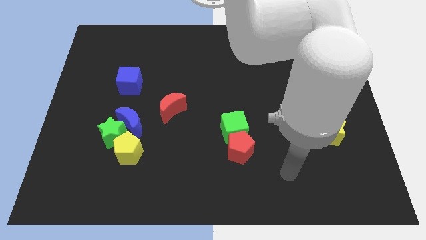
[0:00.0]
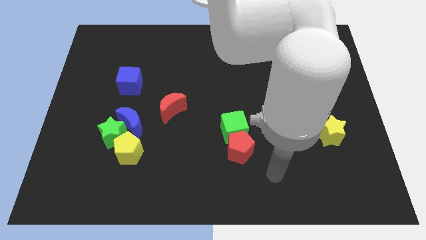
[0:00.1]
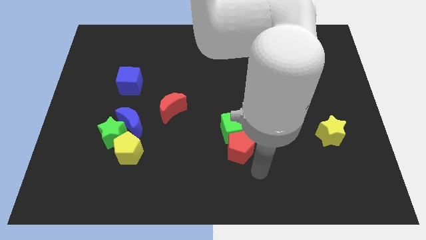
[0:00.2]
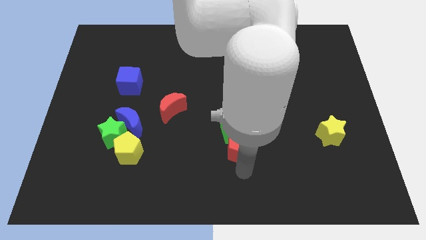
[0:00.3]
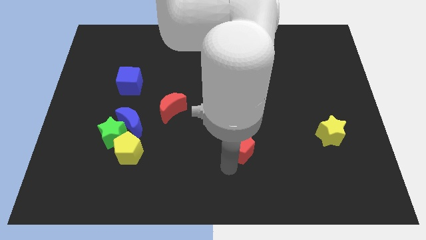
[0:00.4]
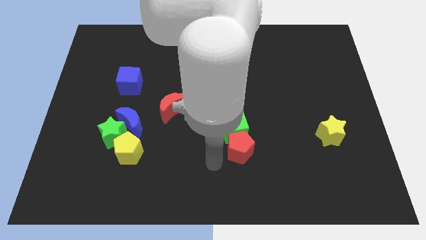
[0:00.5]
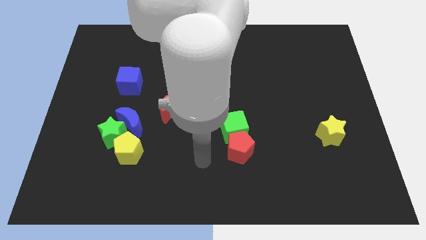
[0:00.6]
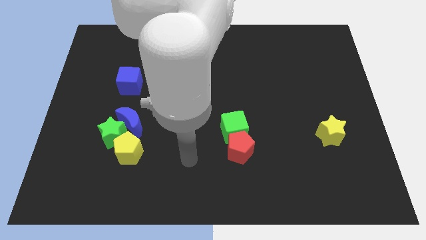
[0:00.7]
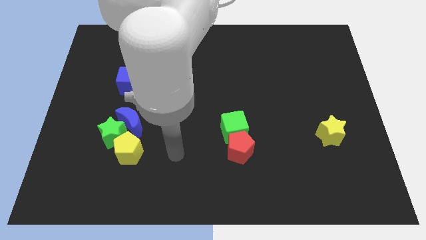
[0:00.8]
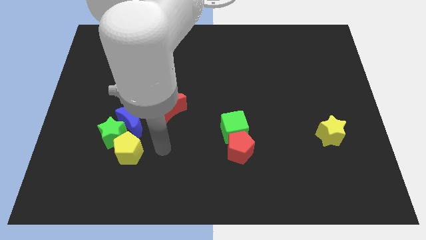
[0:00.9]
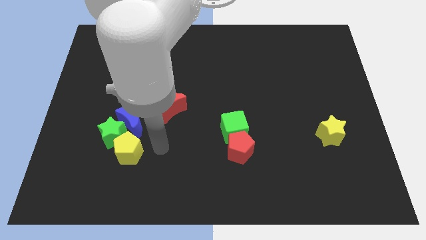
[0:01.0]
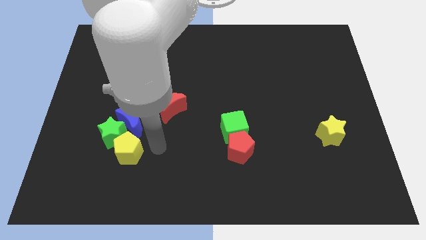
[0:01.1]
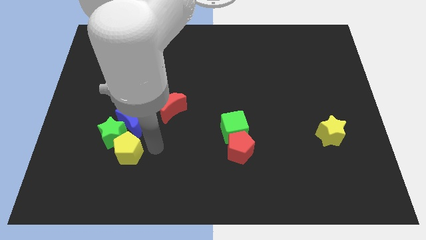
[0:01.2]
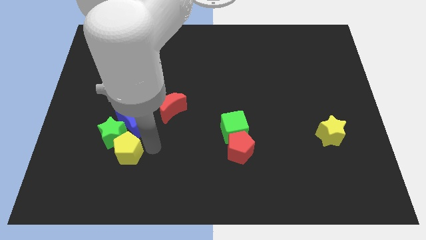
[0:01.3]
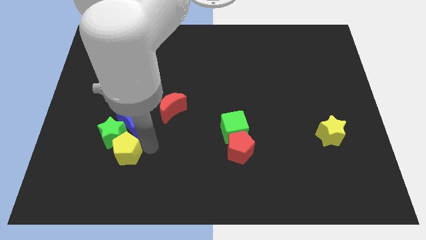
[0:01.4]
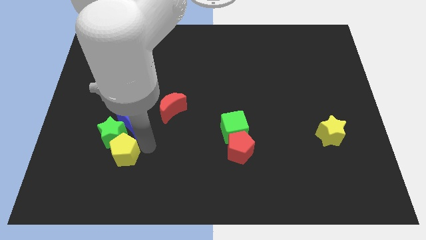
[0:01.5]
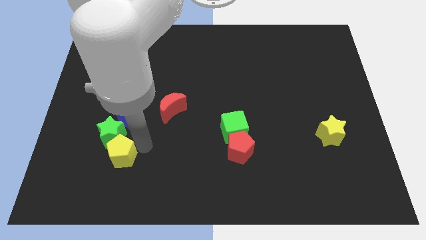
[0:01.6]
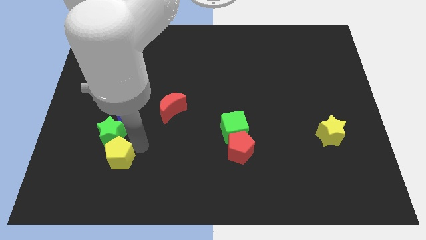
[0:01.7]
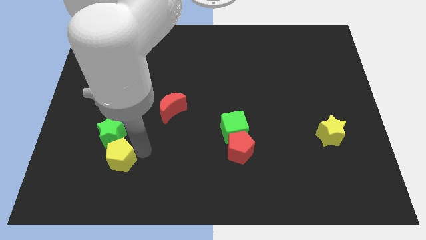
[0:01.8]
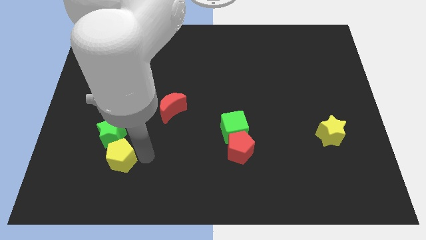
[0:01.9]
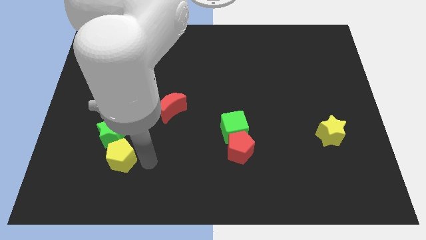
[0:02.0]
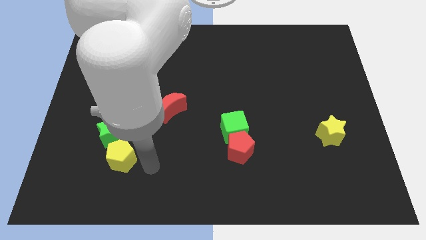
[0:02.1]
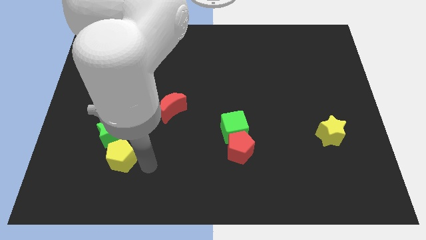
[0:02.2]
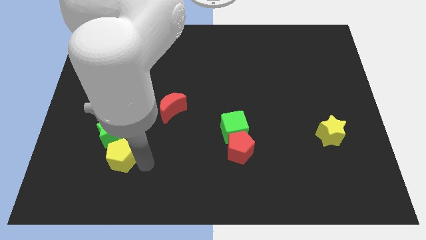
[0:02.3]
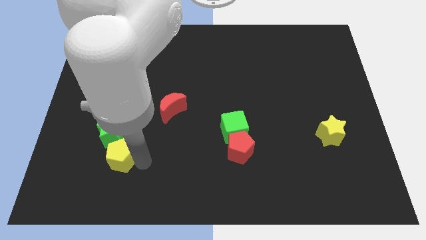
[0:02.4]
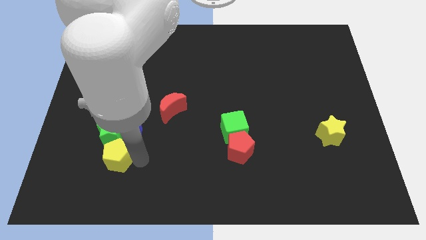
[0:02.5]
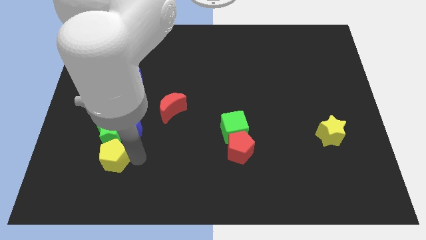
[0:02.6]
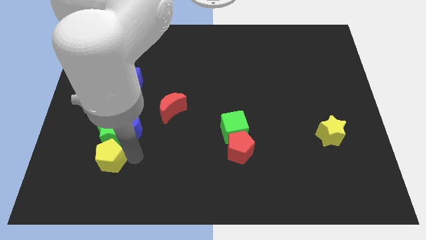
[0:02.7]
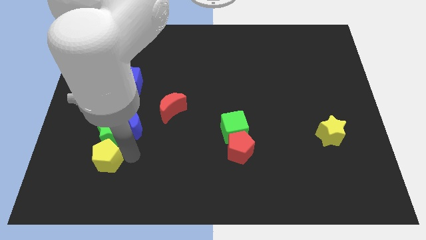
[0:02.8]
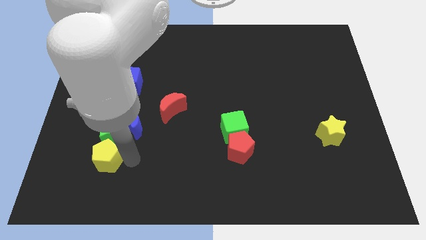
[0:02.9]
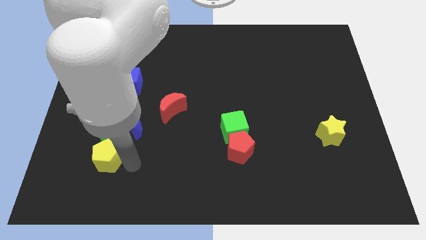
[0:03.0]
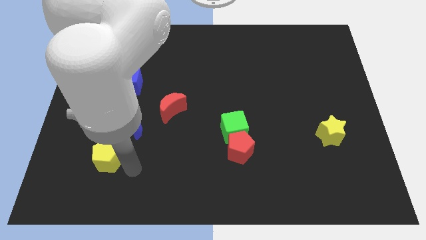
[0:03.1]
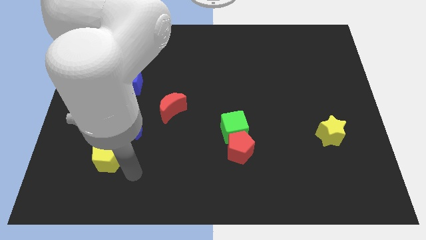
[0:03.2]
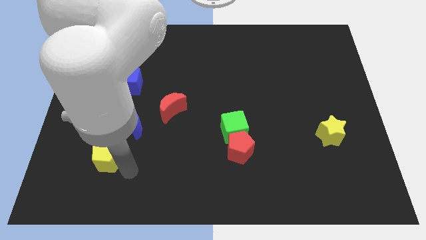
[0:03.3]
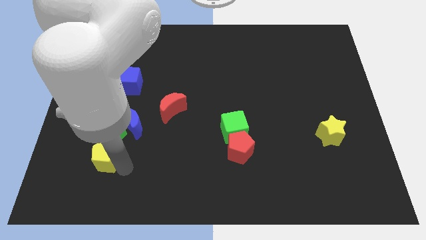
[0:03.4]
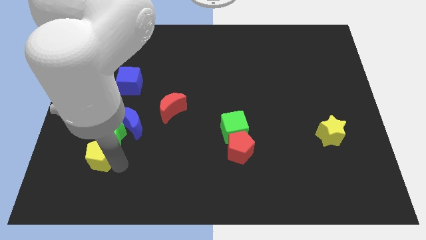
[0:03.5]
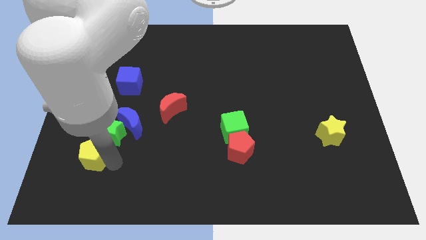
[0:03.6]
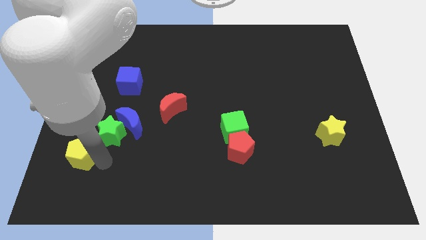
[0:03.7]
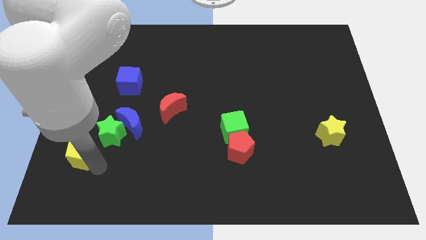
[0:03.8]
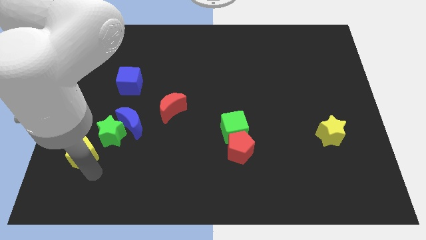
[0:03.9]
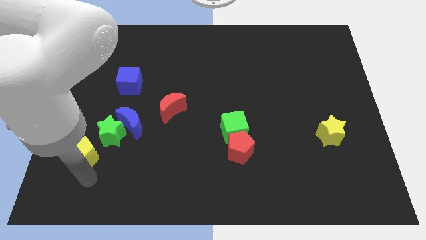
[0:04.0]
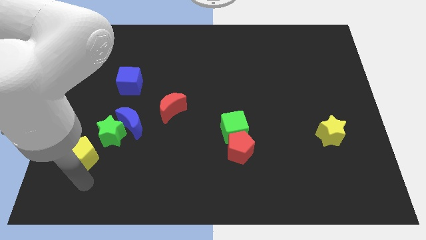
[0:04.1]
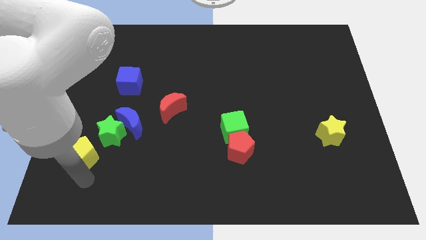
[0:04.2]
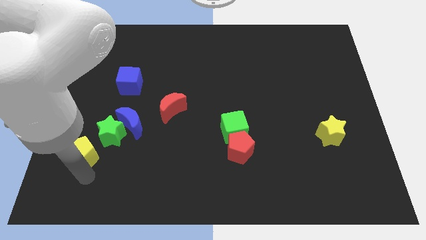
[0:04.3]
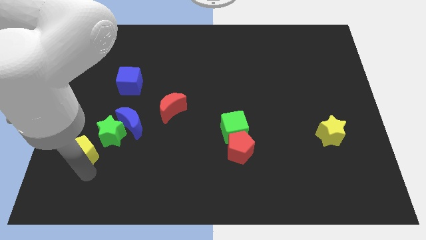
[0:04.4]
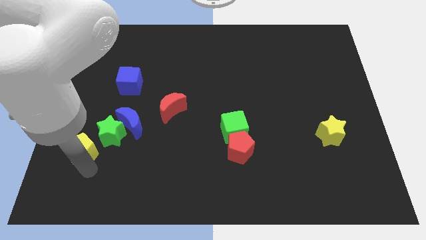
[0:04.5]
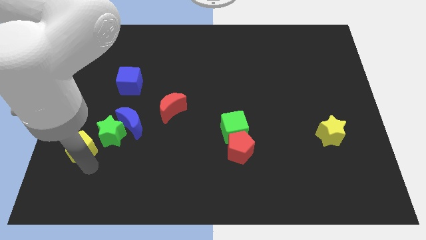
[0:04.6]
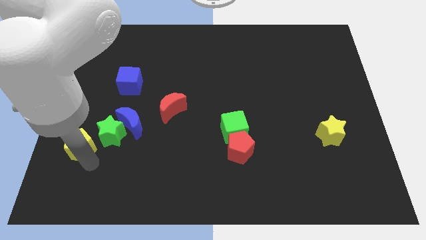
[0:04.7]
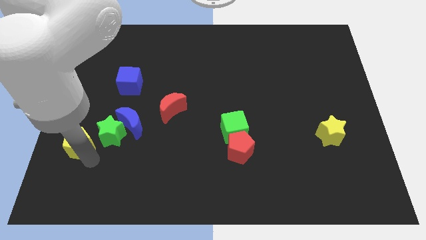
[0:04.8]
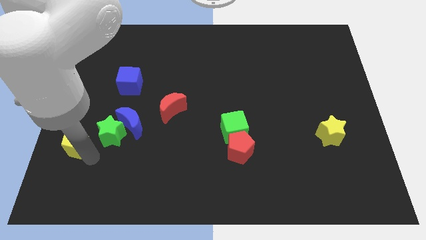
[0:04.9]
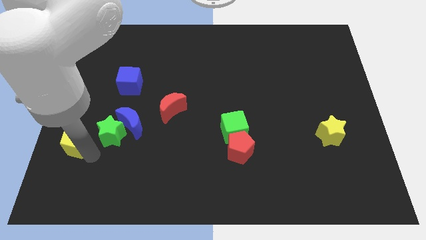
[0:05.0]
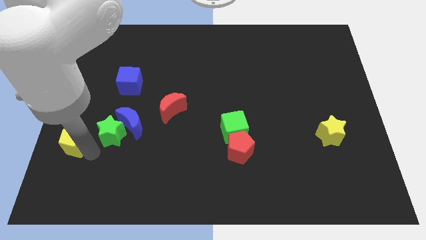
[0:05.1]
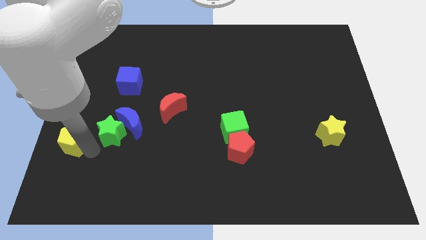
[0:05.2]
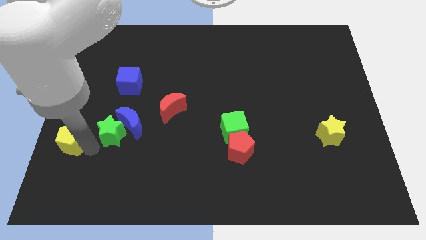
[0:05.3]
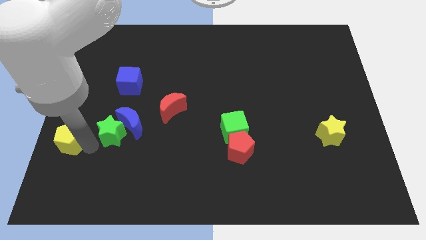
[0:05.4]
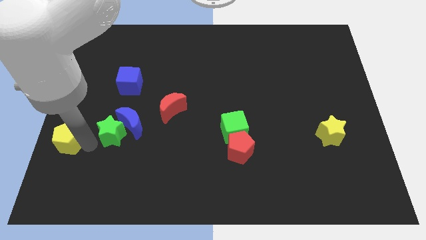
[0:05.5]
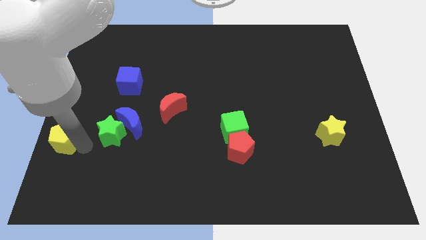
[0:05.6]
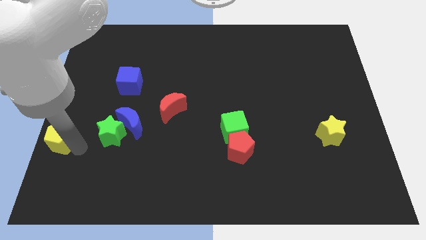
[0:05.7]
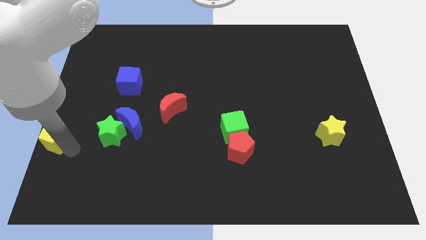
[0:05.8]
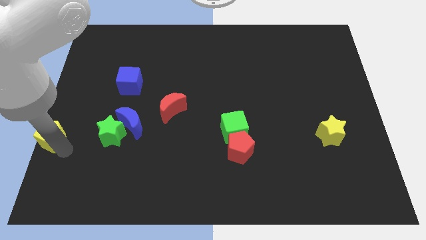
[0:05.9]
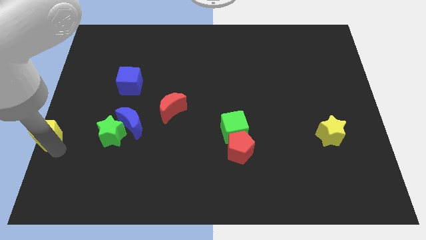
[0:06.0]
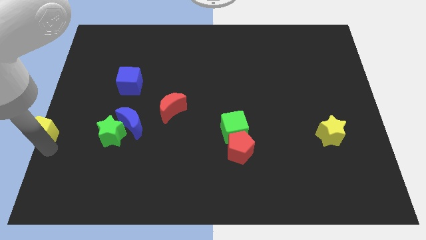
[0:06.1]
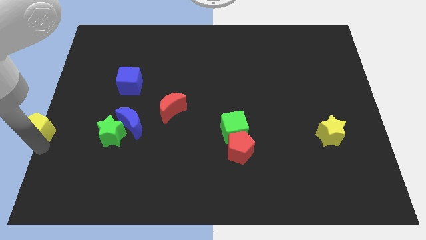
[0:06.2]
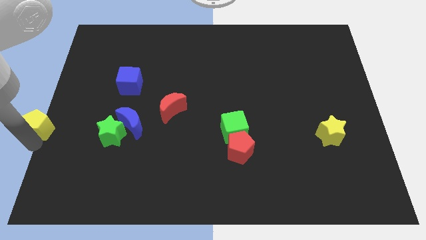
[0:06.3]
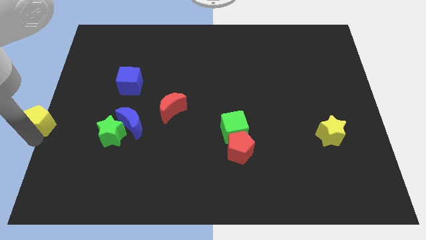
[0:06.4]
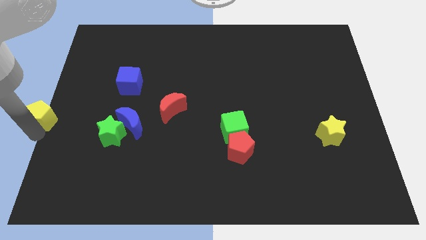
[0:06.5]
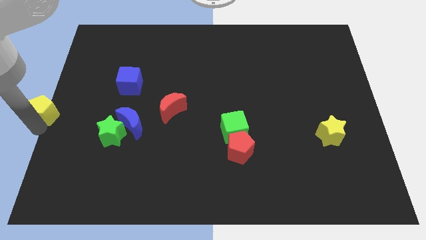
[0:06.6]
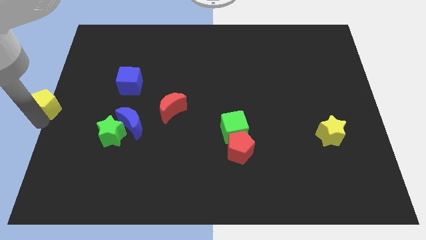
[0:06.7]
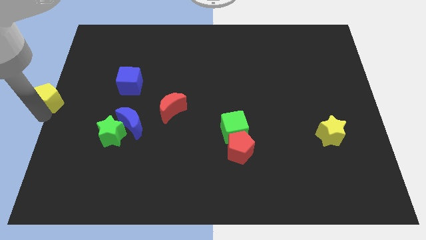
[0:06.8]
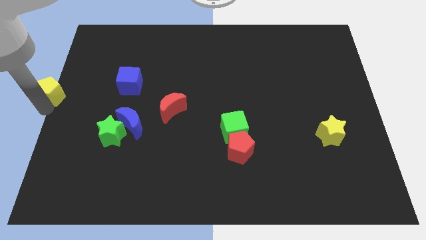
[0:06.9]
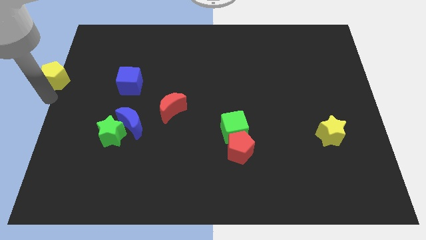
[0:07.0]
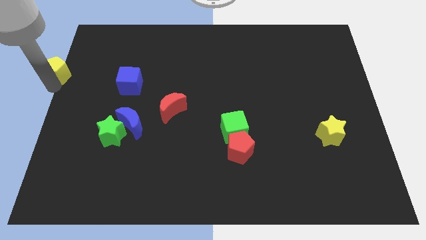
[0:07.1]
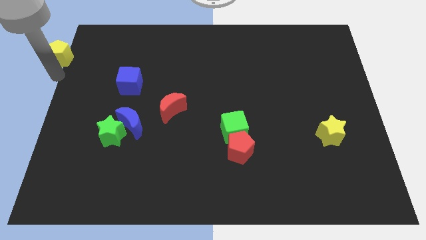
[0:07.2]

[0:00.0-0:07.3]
slide the yellow pentagon to the top left of the board

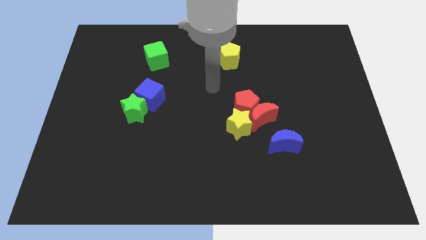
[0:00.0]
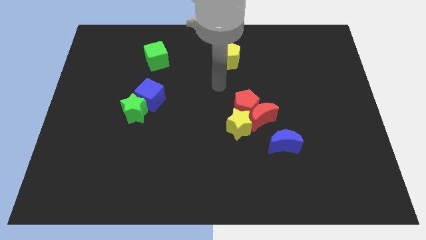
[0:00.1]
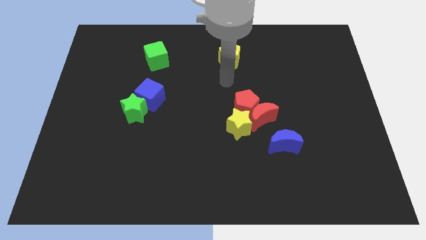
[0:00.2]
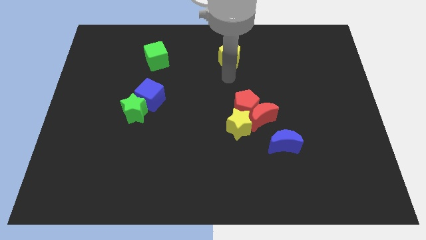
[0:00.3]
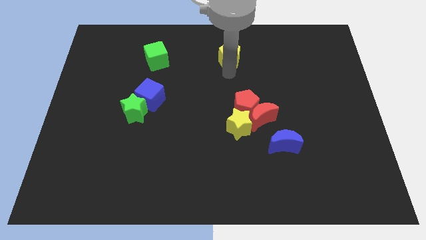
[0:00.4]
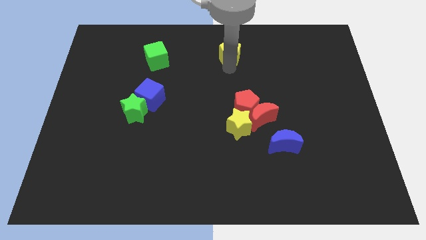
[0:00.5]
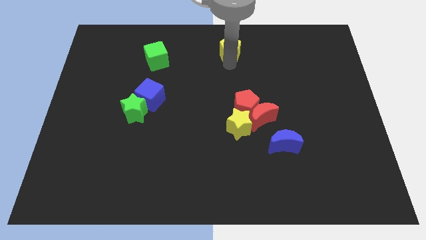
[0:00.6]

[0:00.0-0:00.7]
move the yellow pentagon to the towards your base
